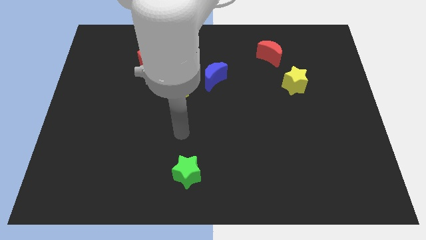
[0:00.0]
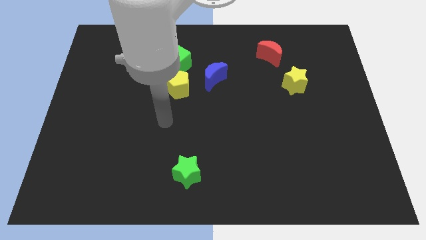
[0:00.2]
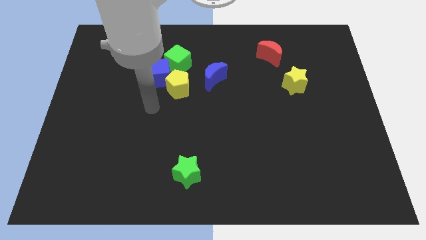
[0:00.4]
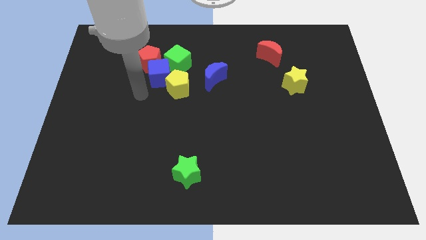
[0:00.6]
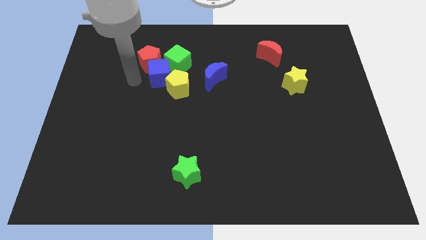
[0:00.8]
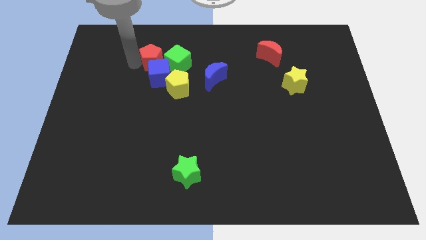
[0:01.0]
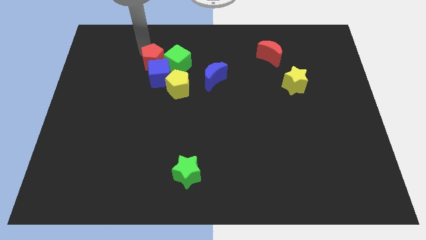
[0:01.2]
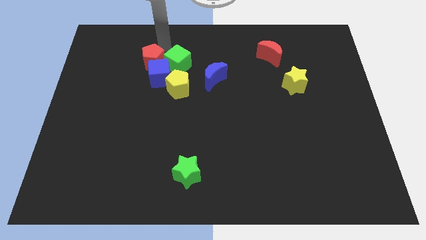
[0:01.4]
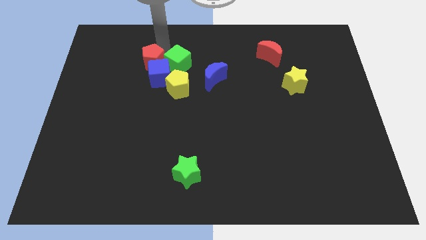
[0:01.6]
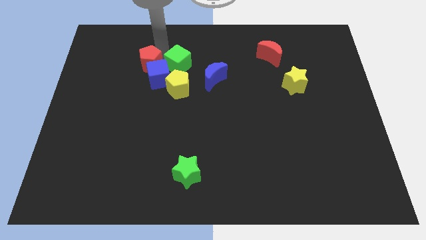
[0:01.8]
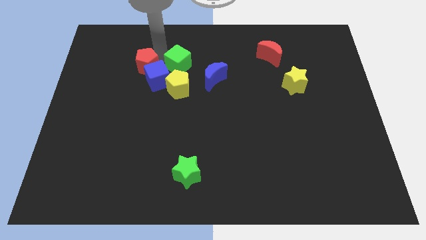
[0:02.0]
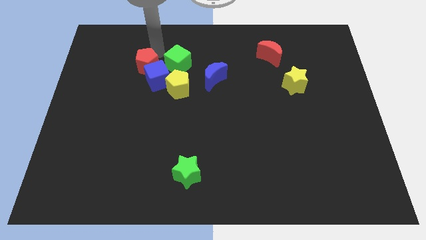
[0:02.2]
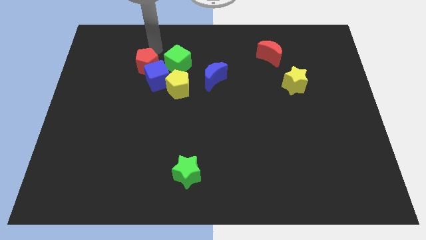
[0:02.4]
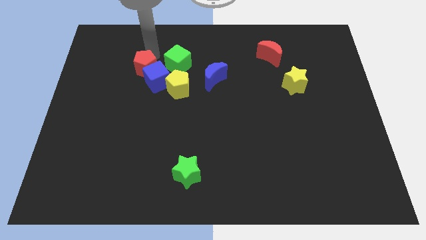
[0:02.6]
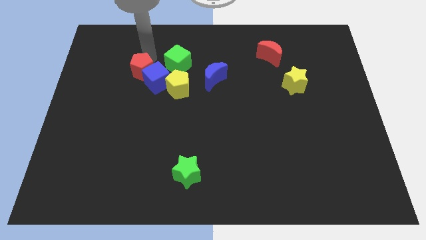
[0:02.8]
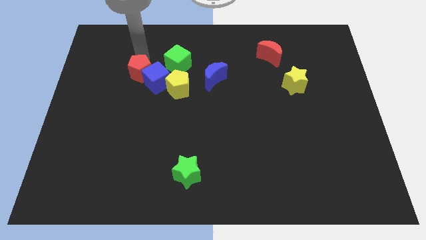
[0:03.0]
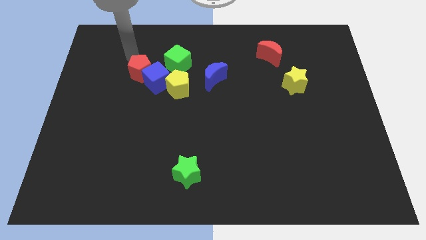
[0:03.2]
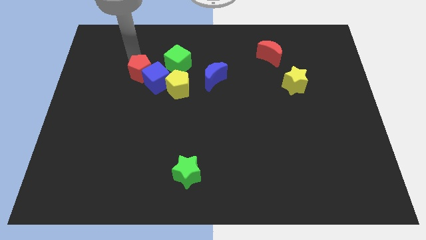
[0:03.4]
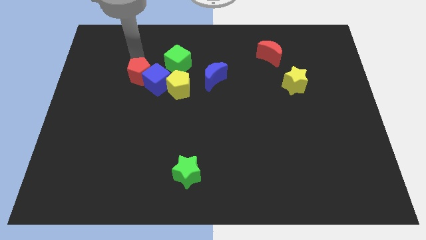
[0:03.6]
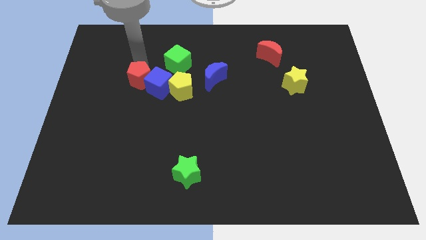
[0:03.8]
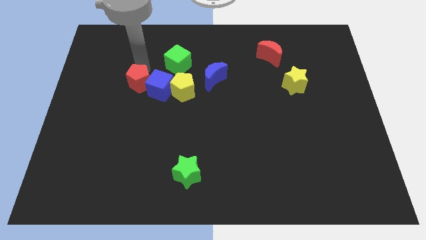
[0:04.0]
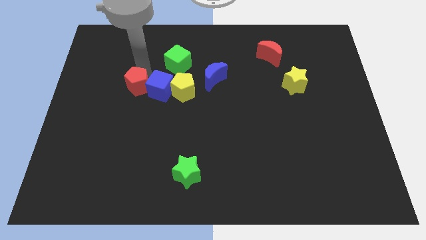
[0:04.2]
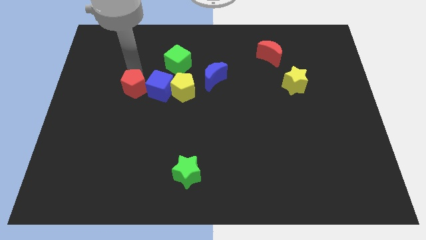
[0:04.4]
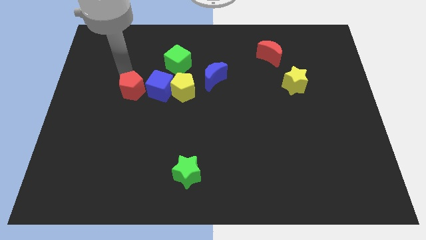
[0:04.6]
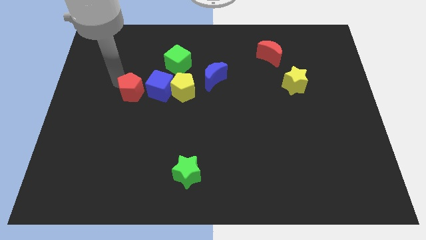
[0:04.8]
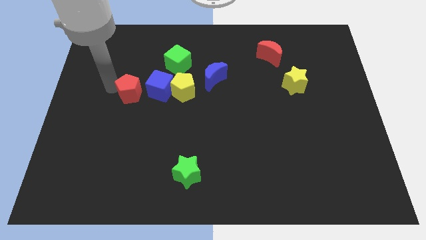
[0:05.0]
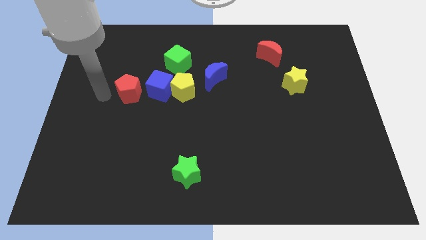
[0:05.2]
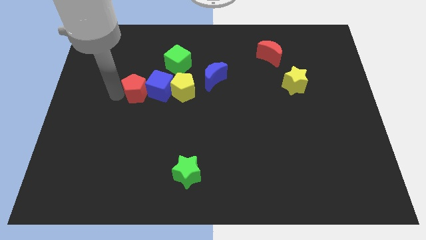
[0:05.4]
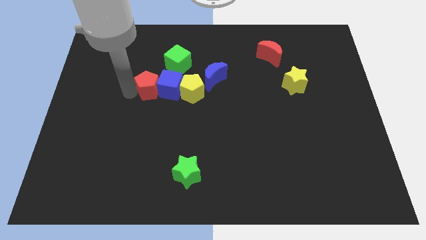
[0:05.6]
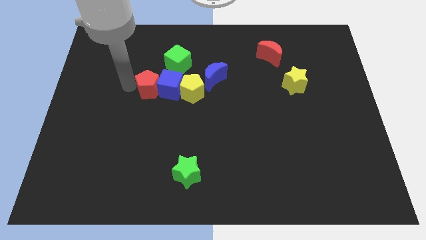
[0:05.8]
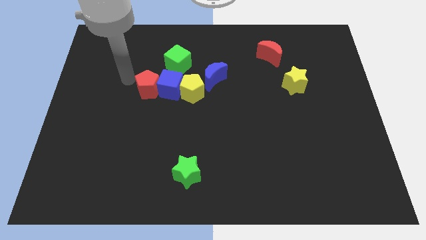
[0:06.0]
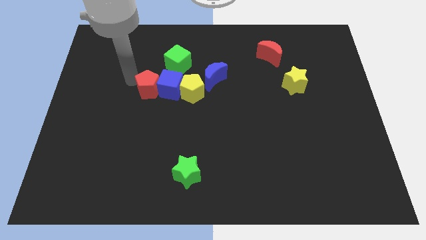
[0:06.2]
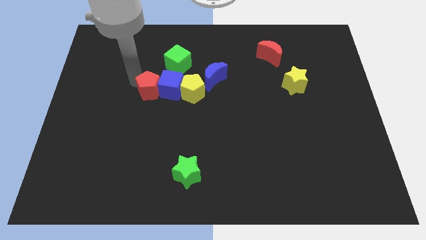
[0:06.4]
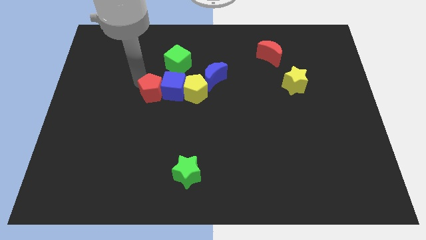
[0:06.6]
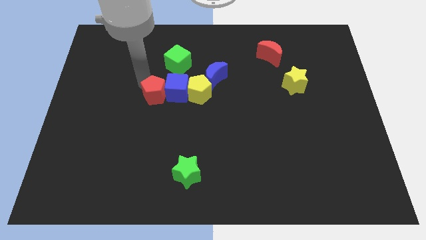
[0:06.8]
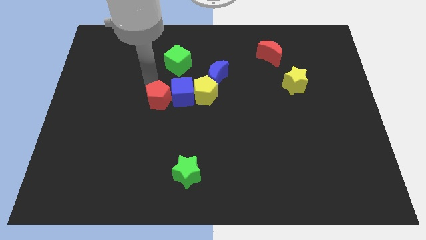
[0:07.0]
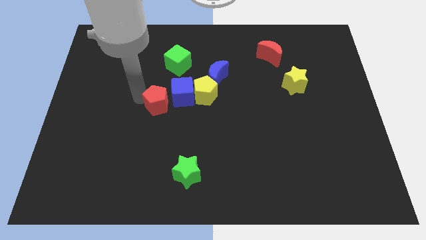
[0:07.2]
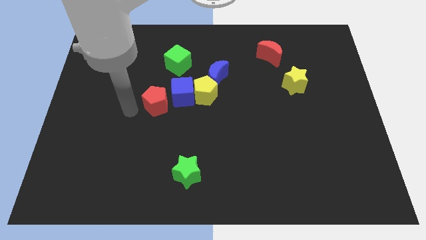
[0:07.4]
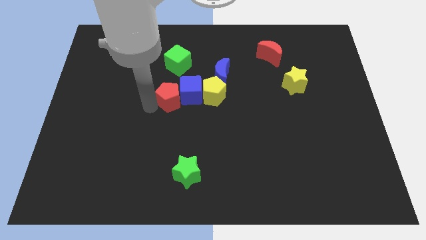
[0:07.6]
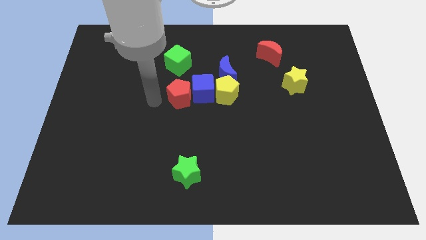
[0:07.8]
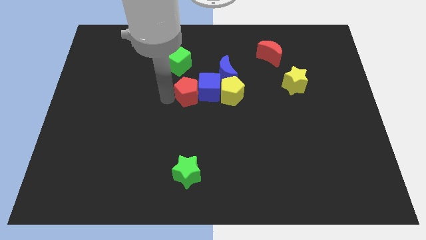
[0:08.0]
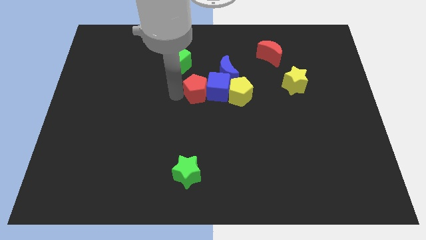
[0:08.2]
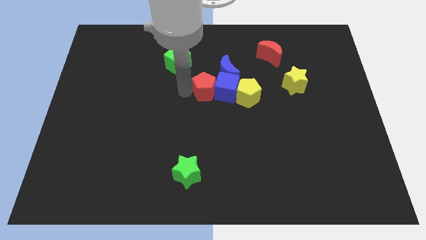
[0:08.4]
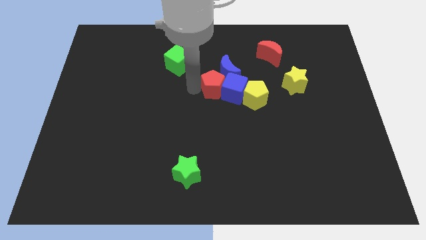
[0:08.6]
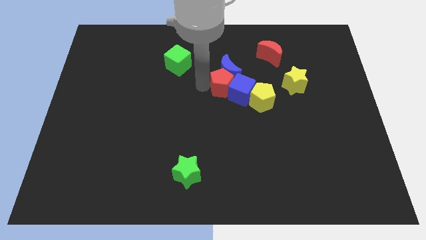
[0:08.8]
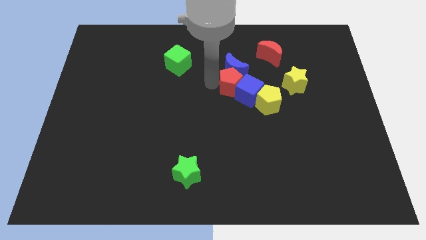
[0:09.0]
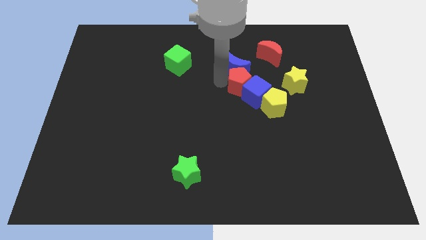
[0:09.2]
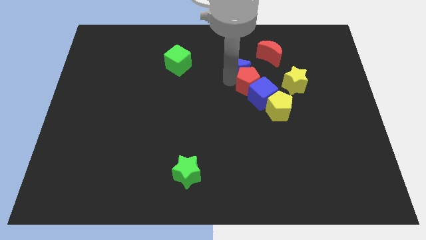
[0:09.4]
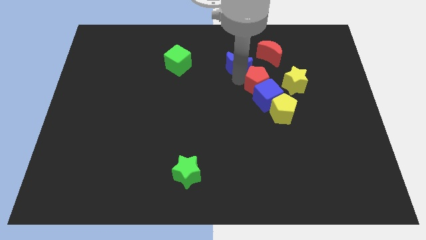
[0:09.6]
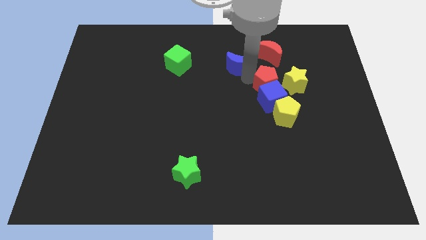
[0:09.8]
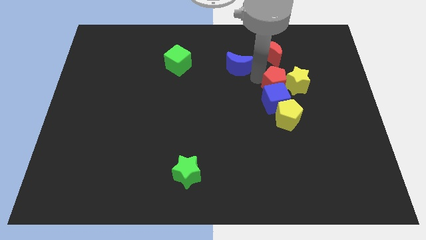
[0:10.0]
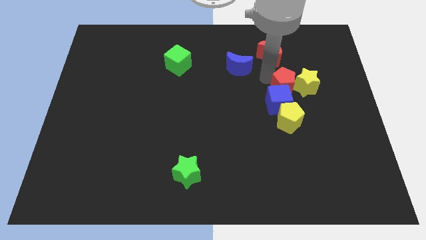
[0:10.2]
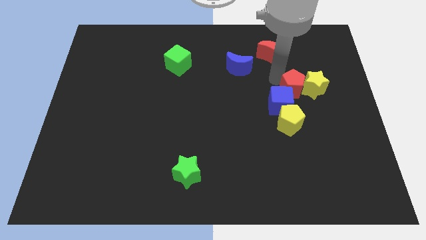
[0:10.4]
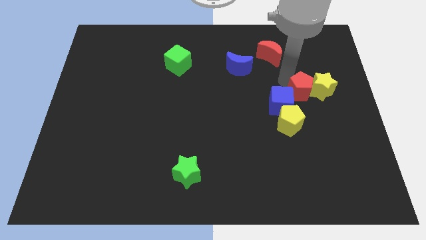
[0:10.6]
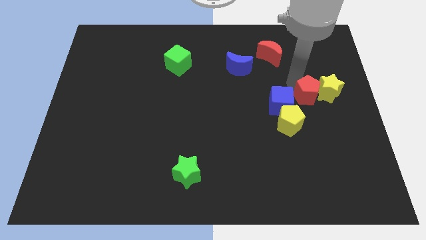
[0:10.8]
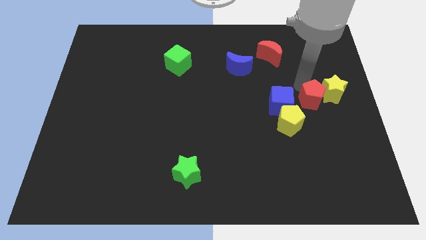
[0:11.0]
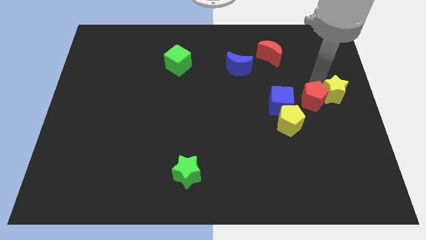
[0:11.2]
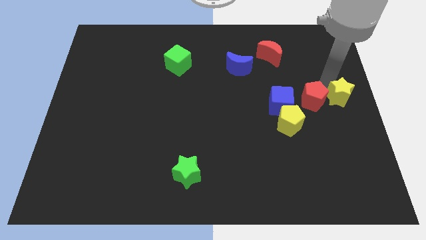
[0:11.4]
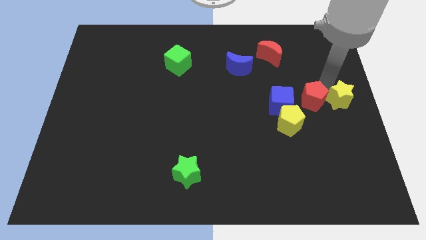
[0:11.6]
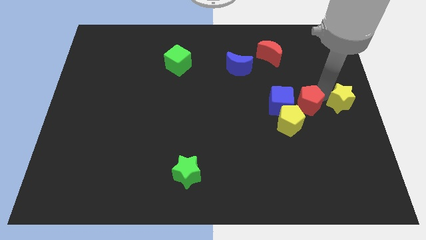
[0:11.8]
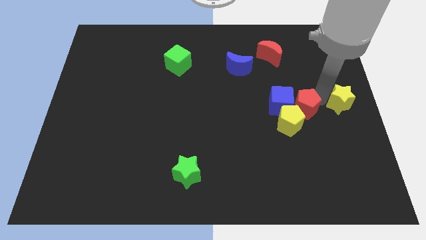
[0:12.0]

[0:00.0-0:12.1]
move the red pentagon to the yellow pentagon
